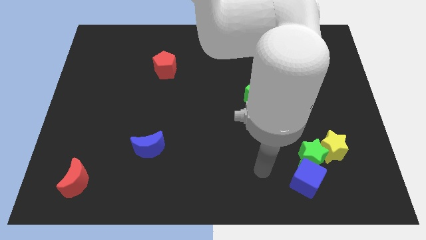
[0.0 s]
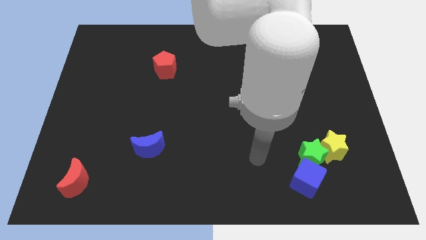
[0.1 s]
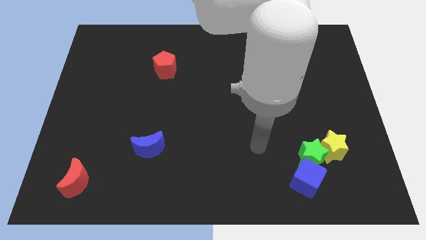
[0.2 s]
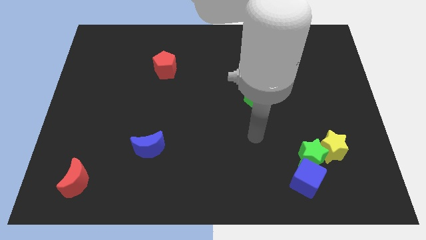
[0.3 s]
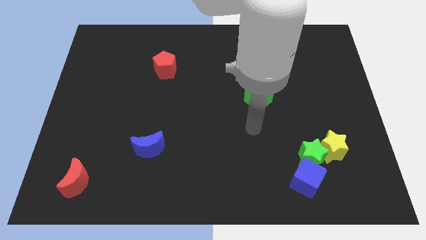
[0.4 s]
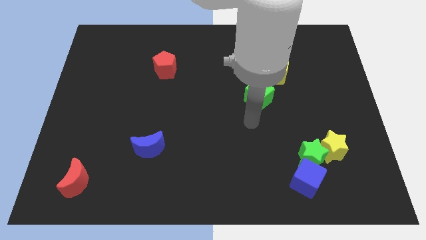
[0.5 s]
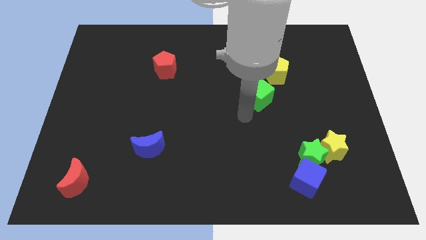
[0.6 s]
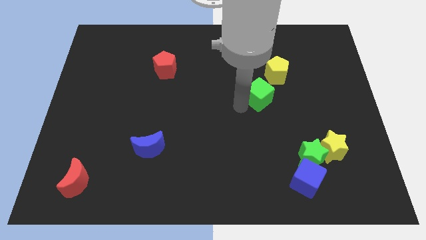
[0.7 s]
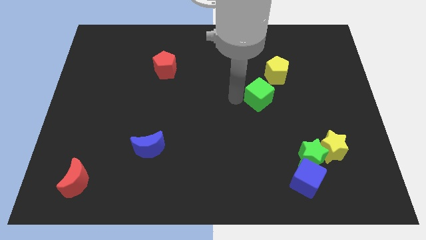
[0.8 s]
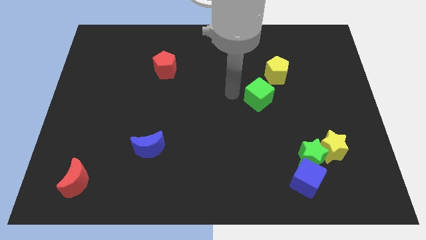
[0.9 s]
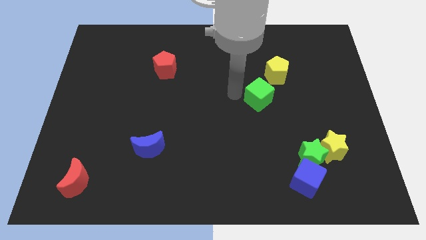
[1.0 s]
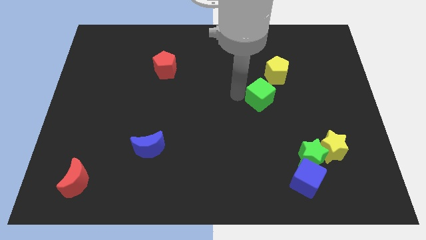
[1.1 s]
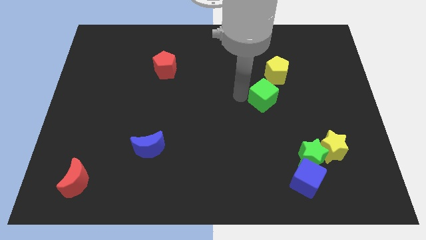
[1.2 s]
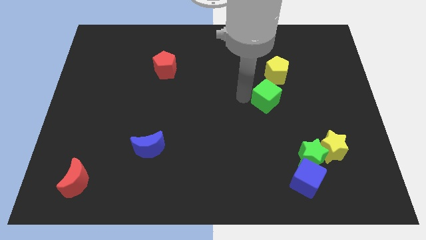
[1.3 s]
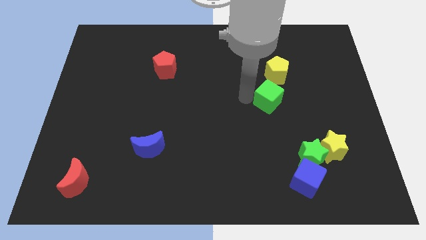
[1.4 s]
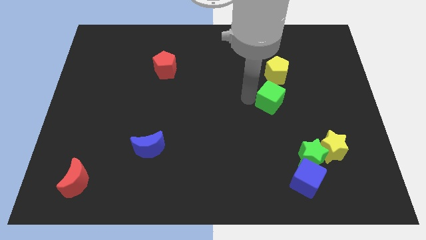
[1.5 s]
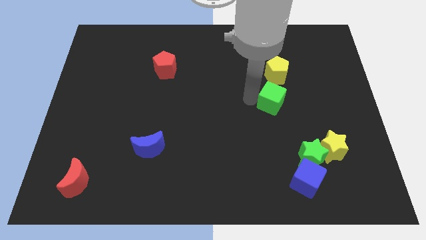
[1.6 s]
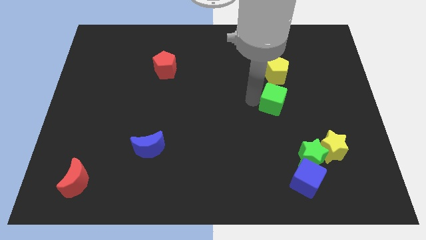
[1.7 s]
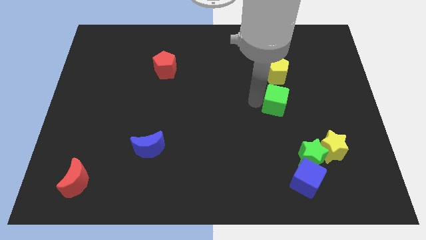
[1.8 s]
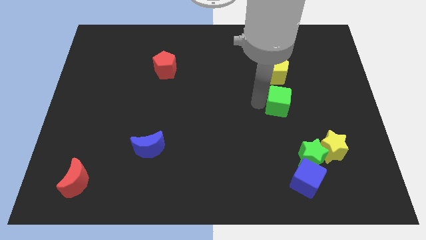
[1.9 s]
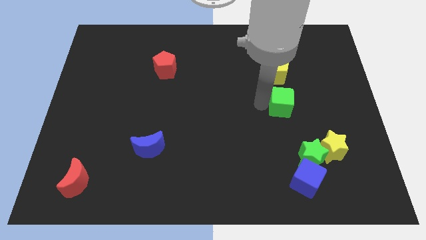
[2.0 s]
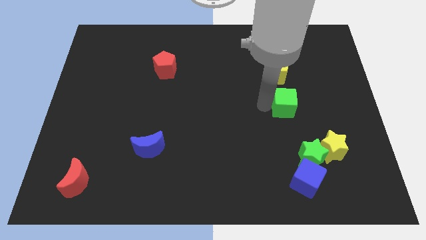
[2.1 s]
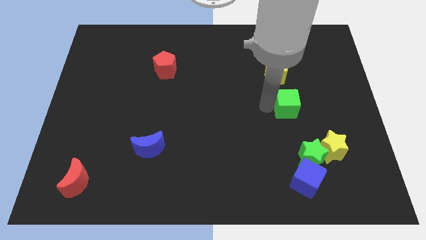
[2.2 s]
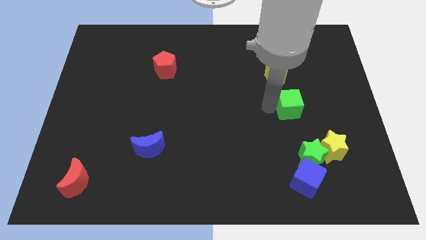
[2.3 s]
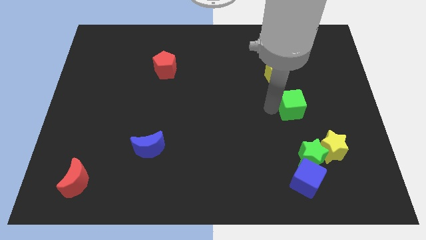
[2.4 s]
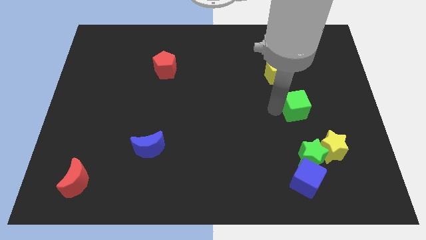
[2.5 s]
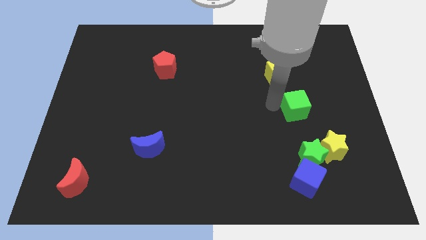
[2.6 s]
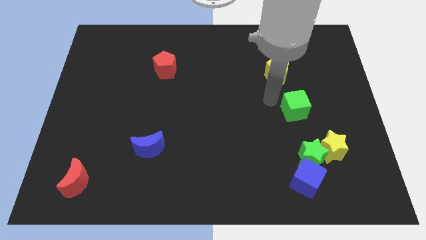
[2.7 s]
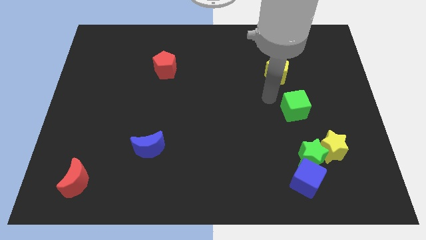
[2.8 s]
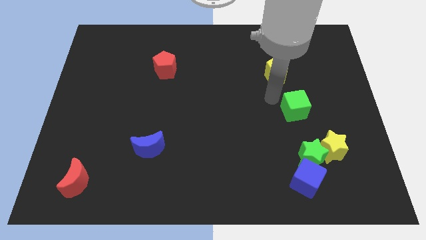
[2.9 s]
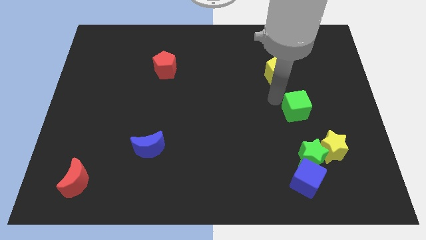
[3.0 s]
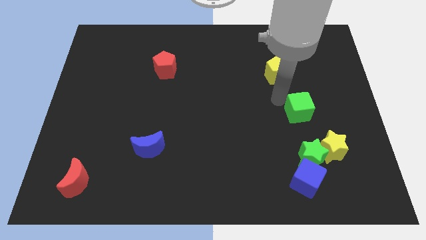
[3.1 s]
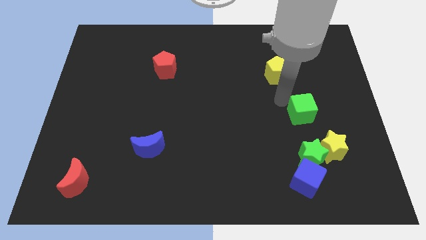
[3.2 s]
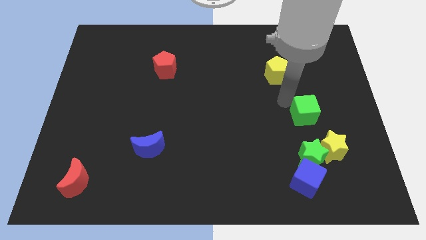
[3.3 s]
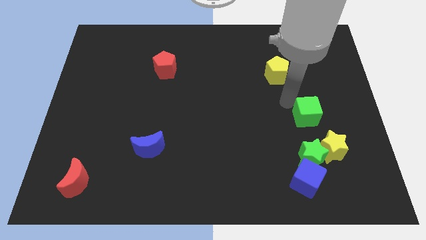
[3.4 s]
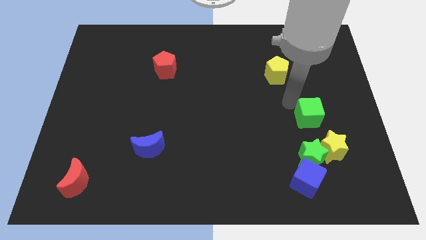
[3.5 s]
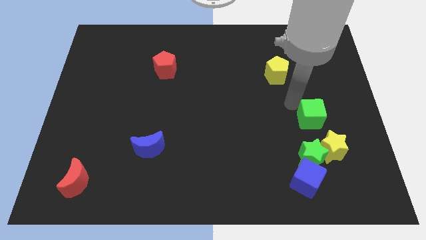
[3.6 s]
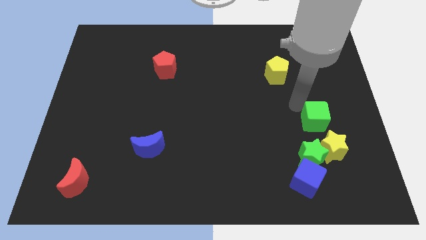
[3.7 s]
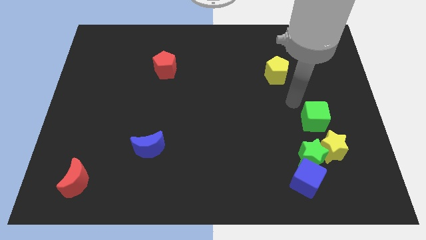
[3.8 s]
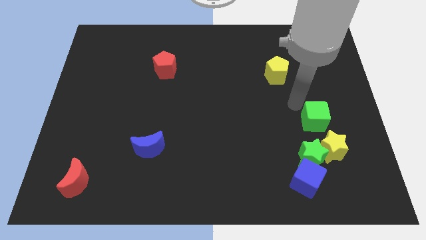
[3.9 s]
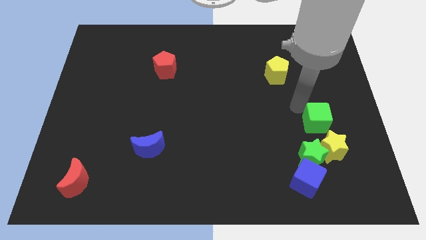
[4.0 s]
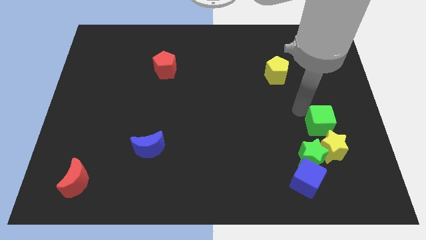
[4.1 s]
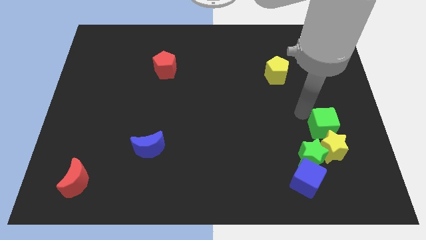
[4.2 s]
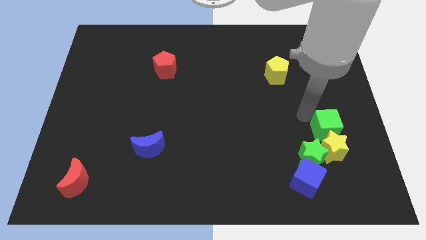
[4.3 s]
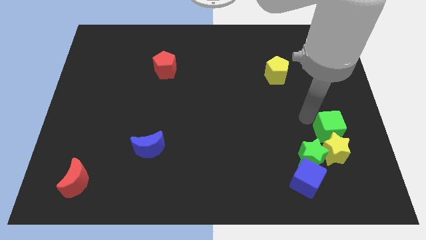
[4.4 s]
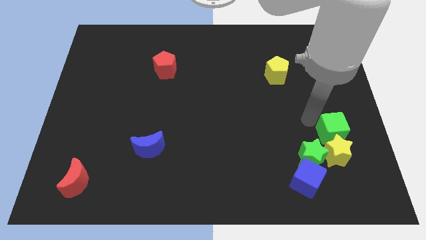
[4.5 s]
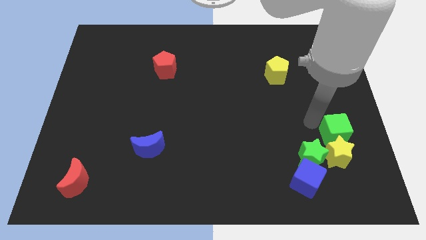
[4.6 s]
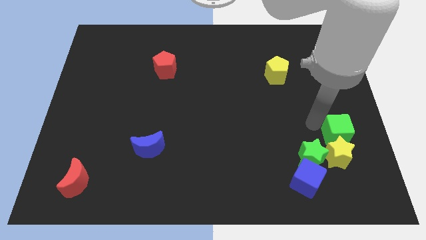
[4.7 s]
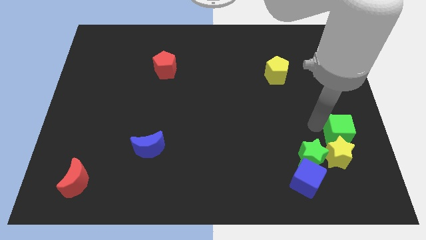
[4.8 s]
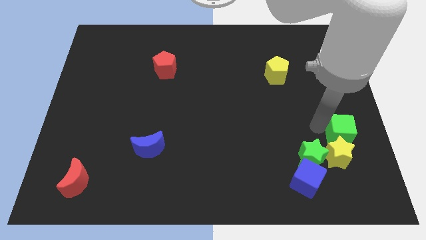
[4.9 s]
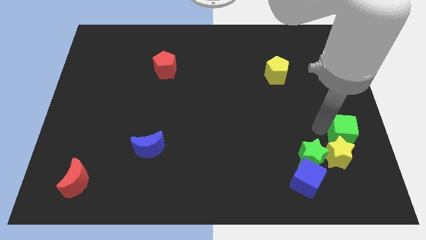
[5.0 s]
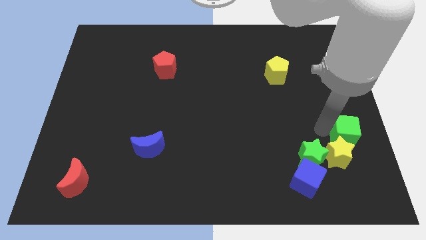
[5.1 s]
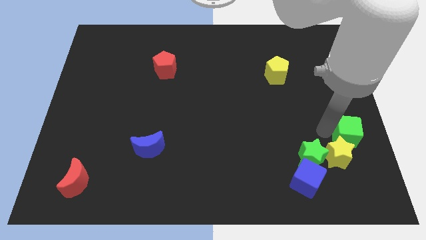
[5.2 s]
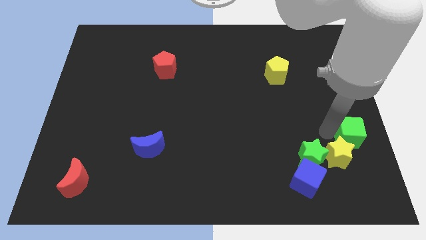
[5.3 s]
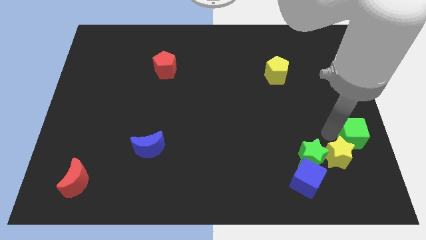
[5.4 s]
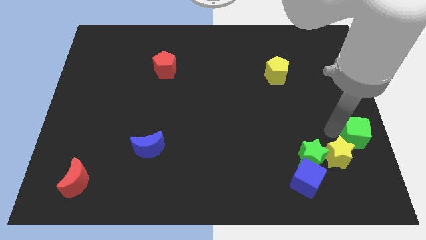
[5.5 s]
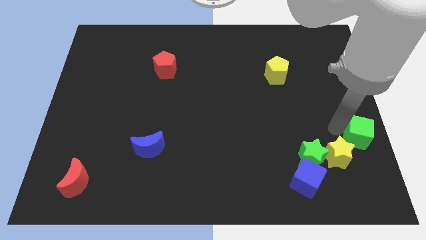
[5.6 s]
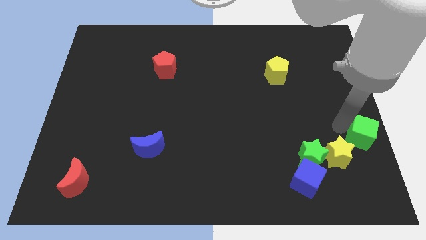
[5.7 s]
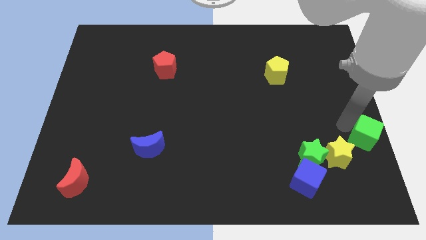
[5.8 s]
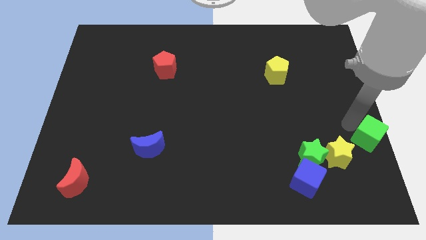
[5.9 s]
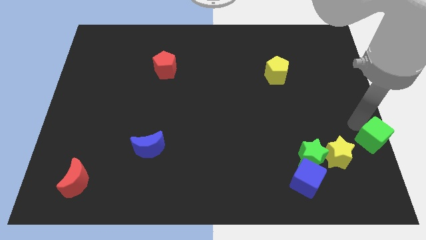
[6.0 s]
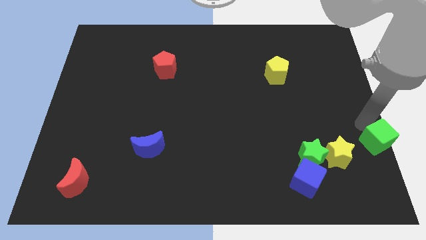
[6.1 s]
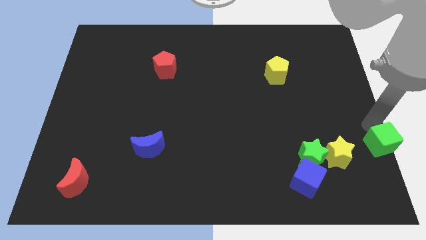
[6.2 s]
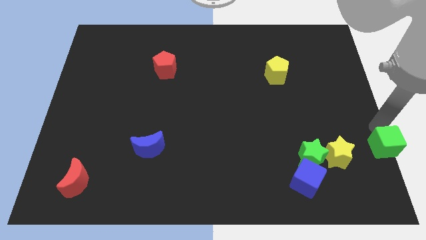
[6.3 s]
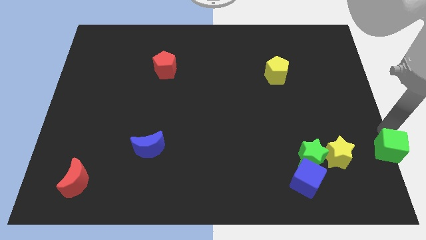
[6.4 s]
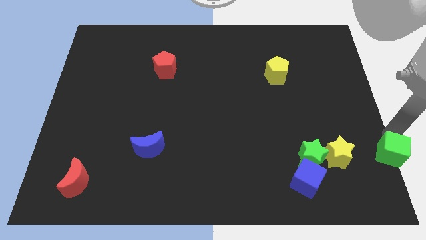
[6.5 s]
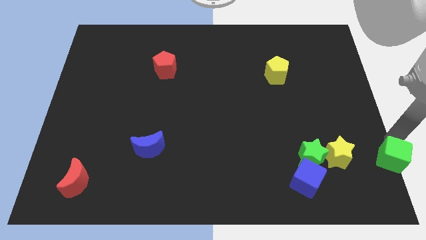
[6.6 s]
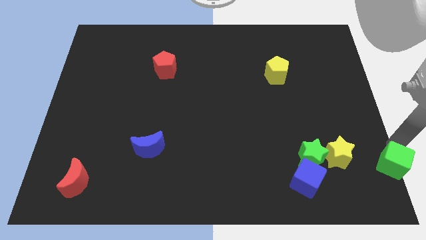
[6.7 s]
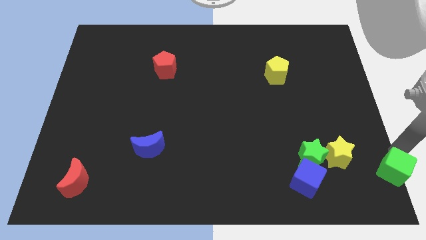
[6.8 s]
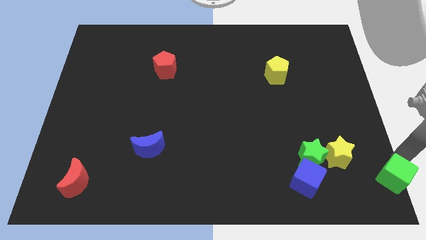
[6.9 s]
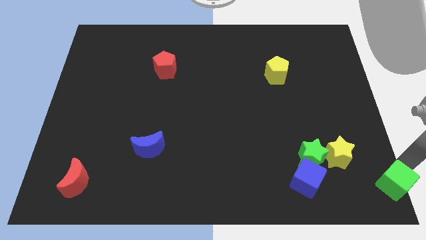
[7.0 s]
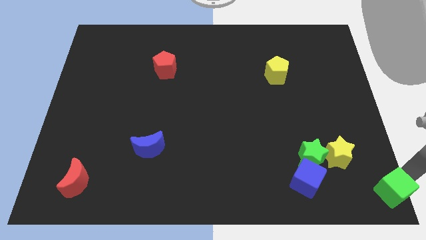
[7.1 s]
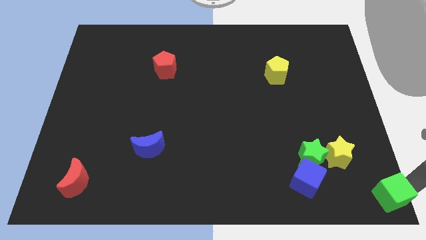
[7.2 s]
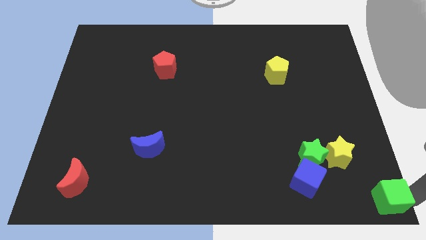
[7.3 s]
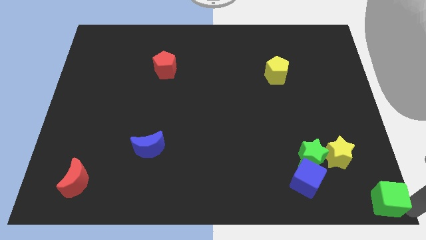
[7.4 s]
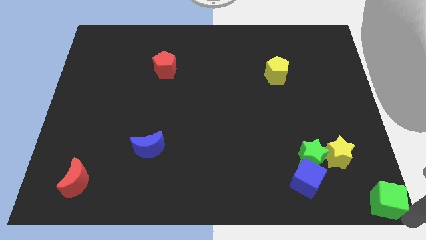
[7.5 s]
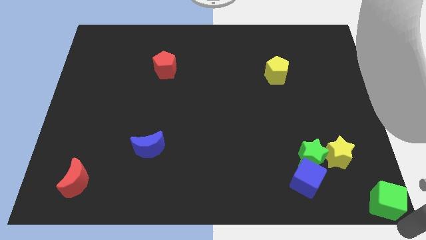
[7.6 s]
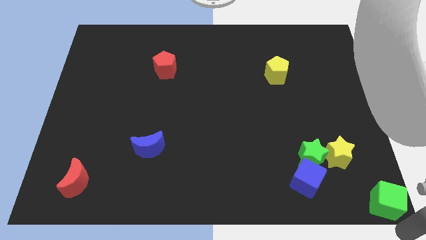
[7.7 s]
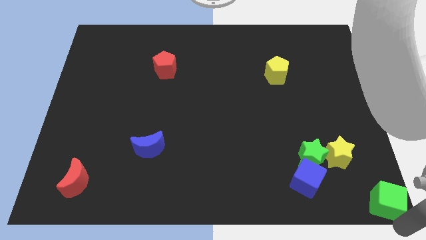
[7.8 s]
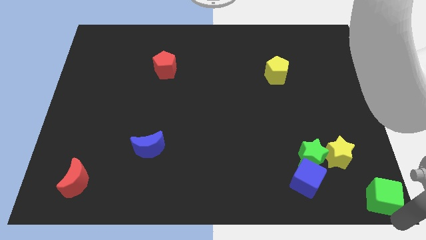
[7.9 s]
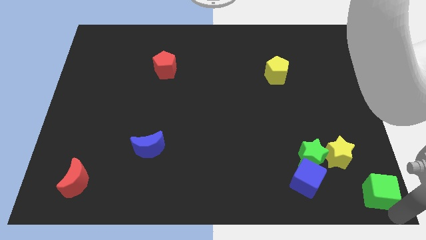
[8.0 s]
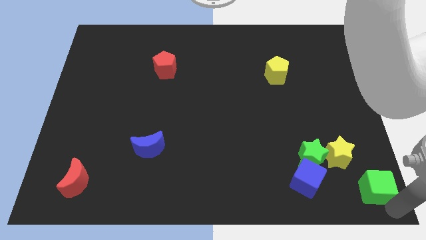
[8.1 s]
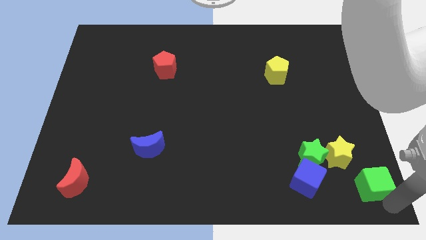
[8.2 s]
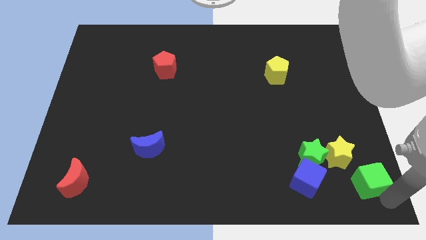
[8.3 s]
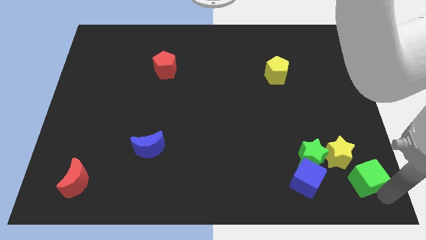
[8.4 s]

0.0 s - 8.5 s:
slide the green cube diagonally down and to the right of the green star
